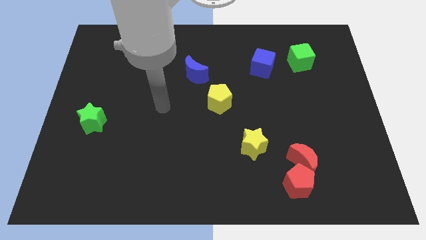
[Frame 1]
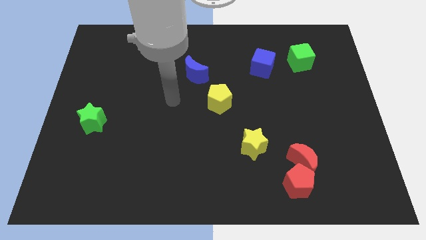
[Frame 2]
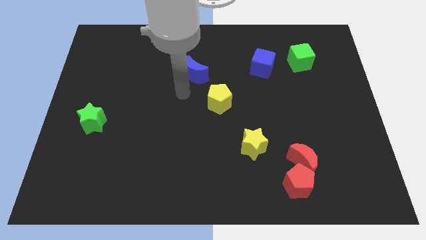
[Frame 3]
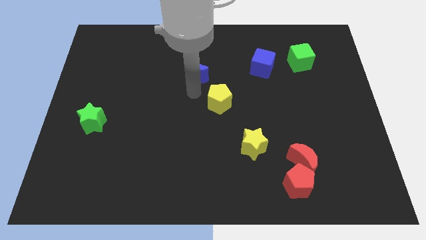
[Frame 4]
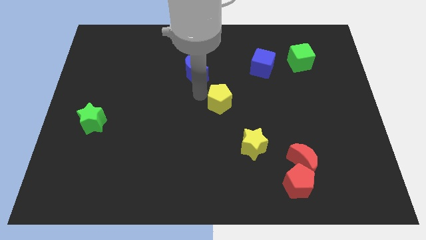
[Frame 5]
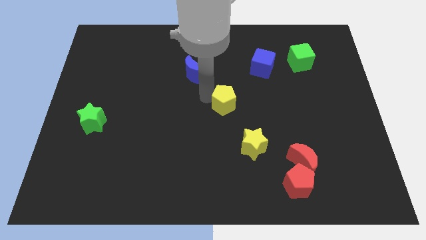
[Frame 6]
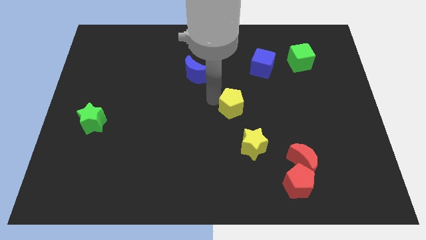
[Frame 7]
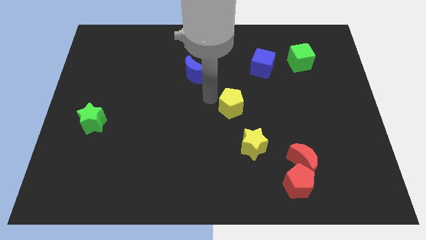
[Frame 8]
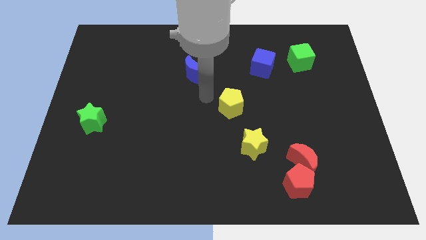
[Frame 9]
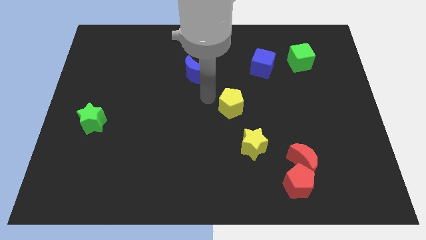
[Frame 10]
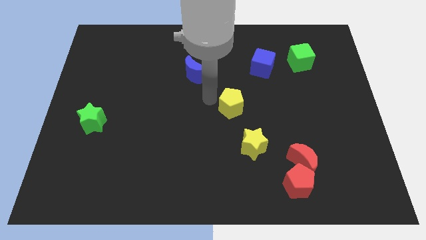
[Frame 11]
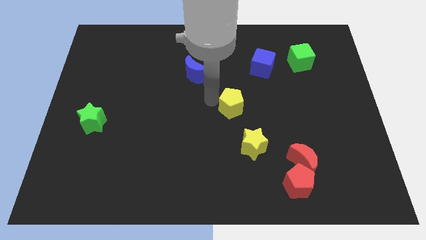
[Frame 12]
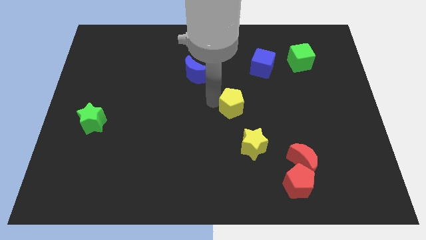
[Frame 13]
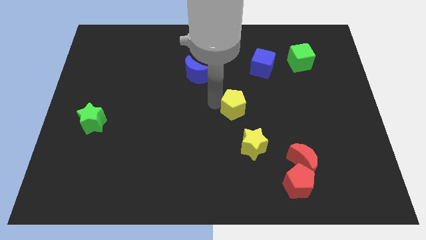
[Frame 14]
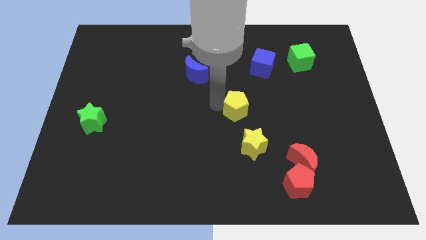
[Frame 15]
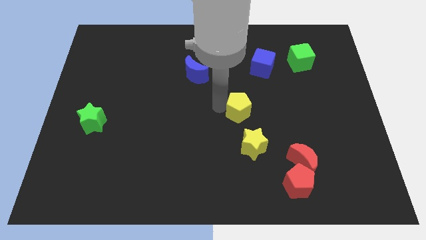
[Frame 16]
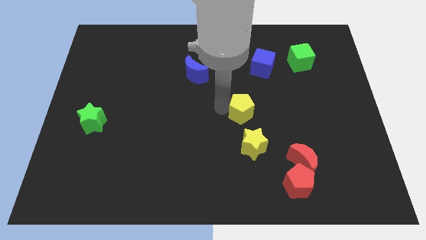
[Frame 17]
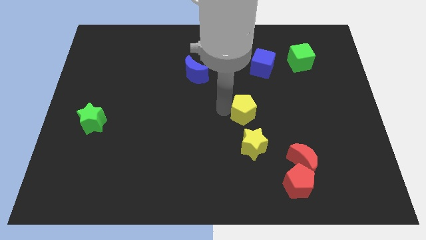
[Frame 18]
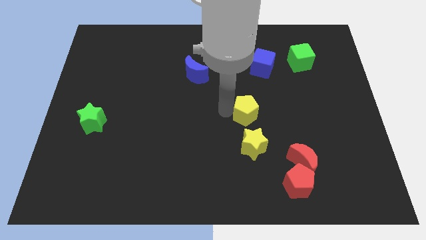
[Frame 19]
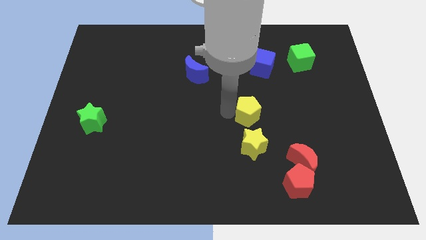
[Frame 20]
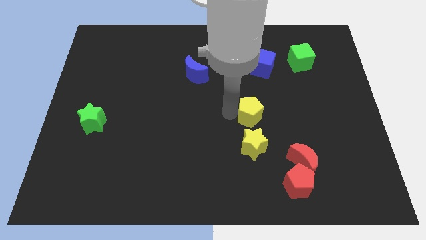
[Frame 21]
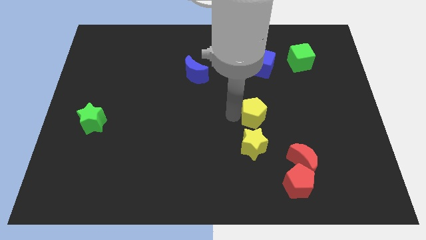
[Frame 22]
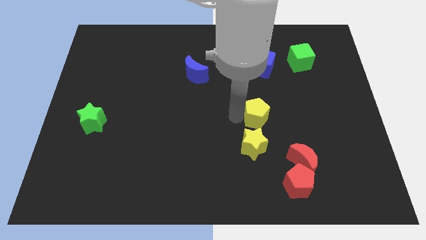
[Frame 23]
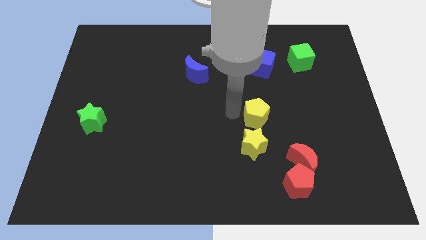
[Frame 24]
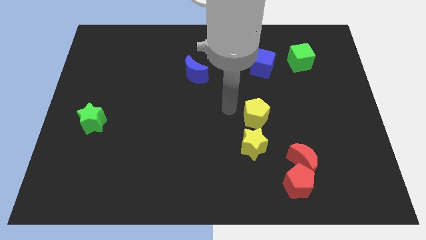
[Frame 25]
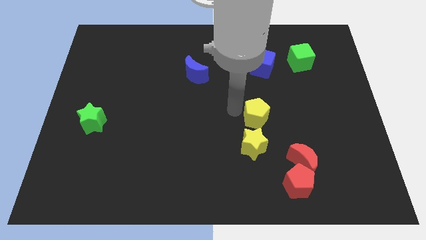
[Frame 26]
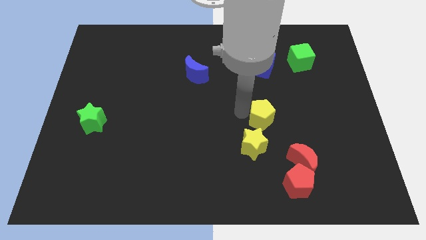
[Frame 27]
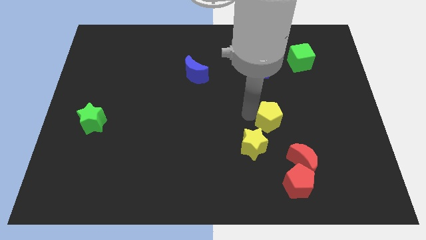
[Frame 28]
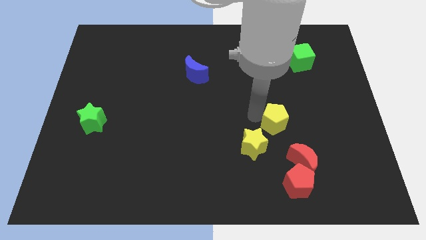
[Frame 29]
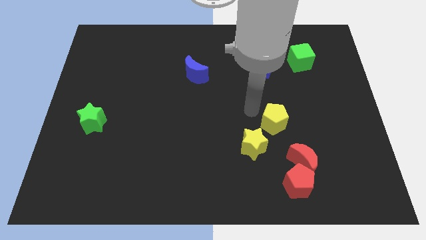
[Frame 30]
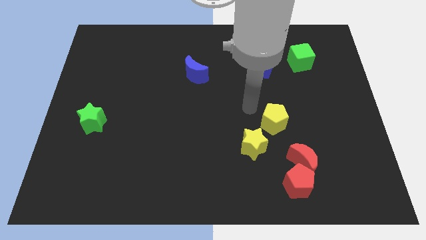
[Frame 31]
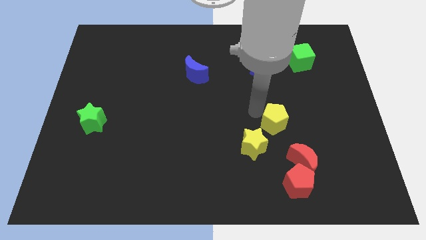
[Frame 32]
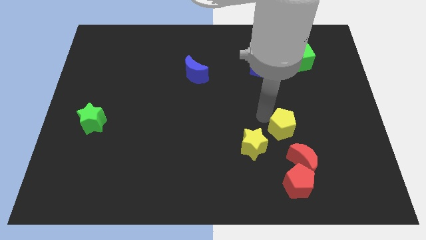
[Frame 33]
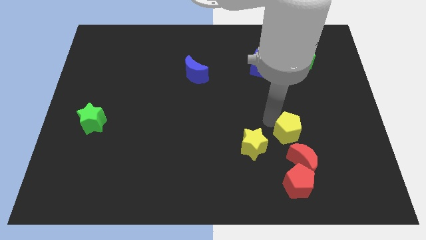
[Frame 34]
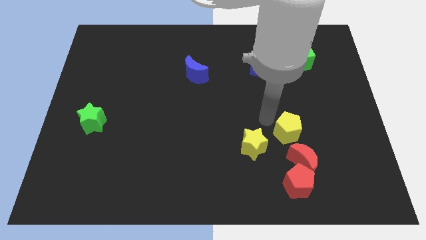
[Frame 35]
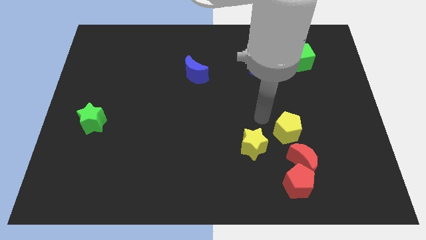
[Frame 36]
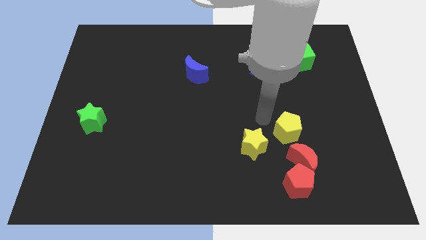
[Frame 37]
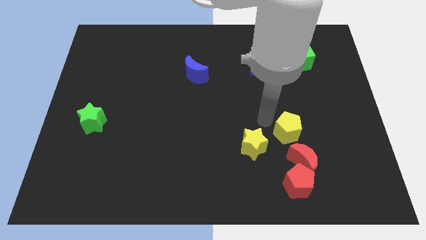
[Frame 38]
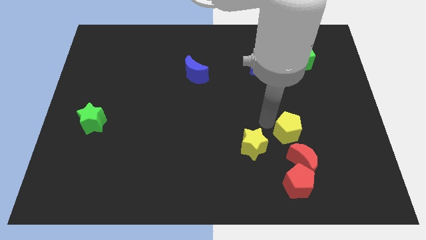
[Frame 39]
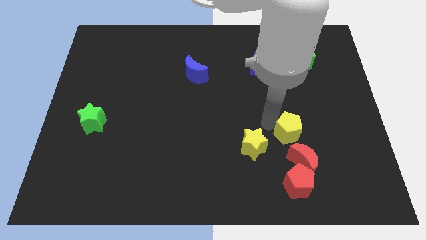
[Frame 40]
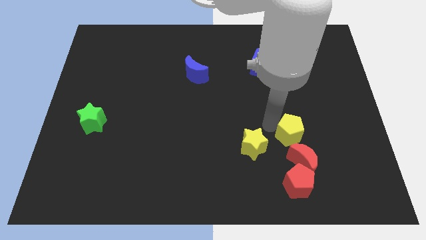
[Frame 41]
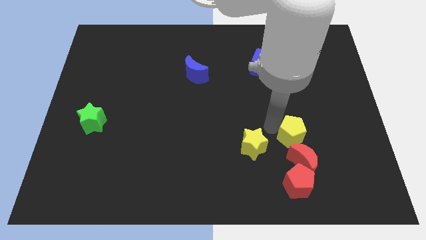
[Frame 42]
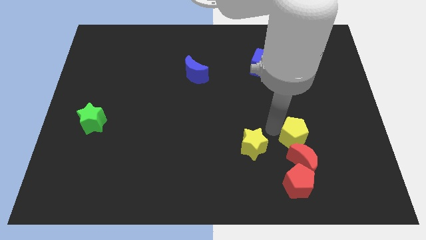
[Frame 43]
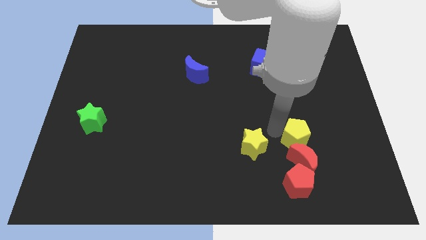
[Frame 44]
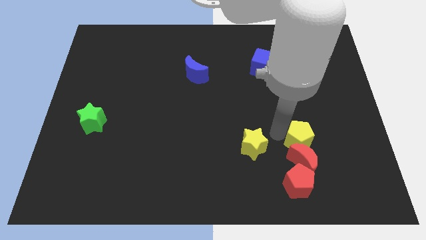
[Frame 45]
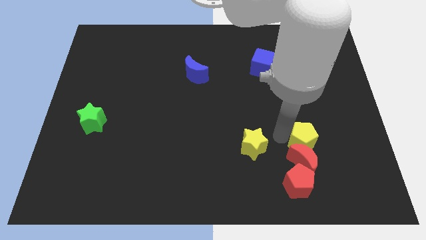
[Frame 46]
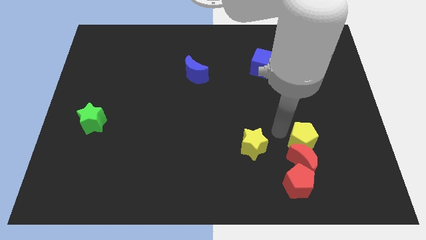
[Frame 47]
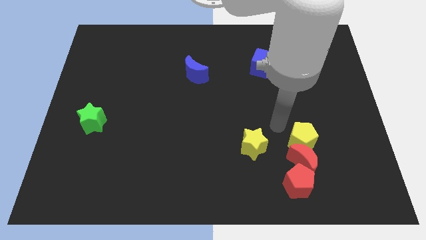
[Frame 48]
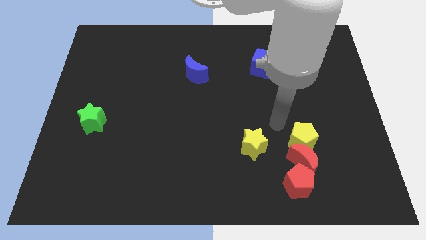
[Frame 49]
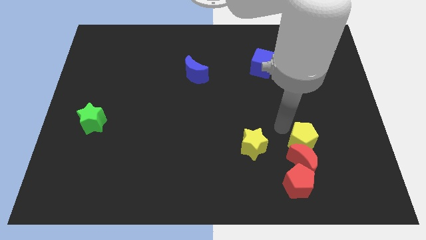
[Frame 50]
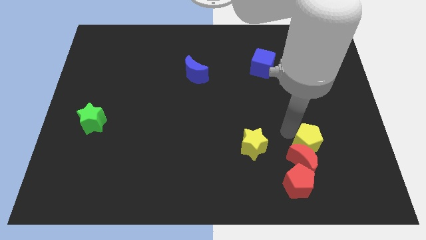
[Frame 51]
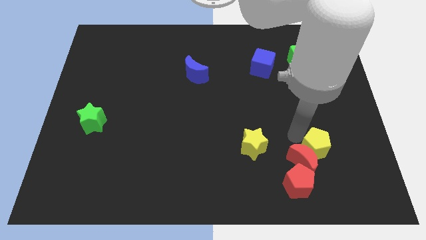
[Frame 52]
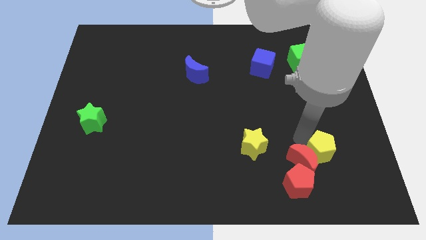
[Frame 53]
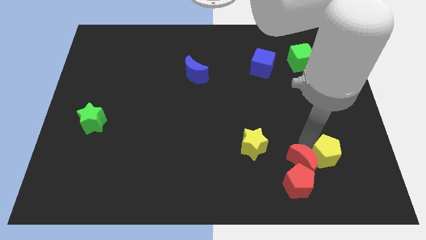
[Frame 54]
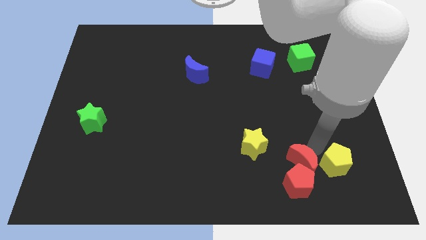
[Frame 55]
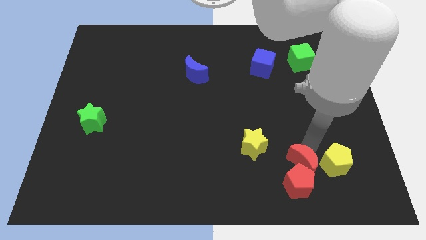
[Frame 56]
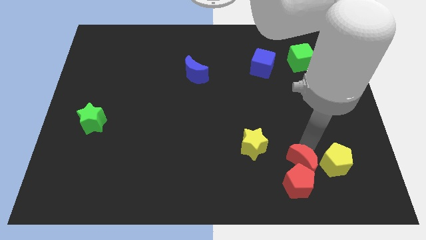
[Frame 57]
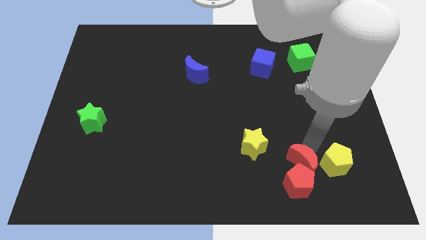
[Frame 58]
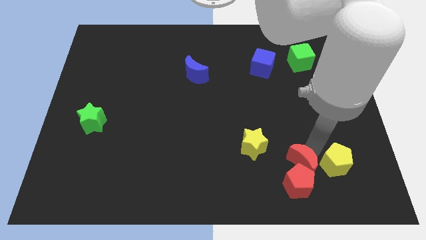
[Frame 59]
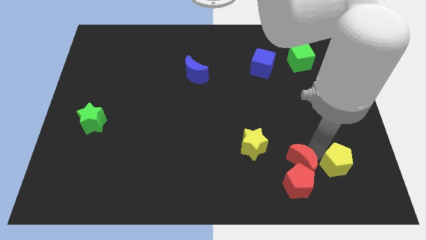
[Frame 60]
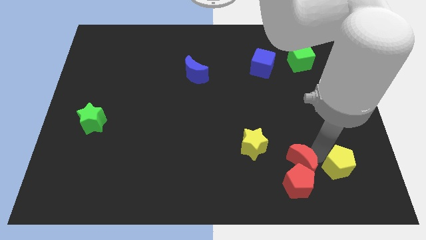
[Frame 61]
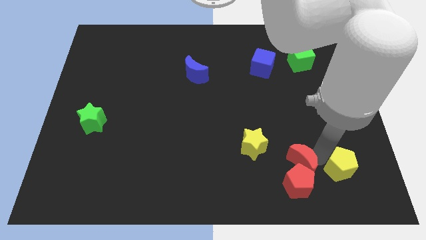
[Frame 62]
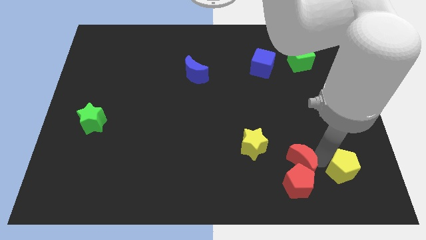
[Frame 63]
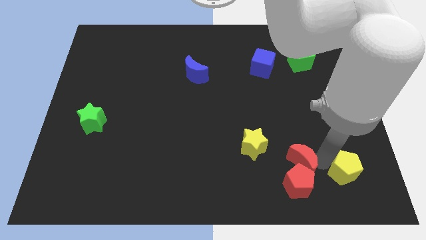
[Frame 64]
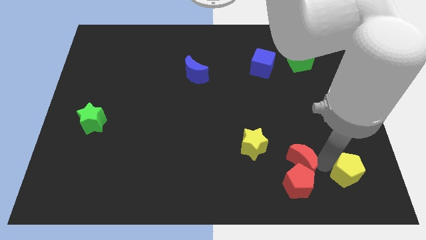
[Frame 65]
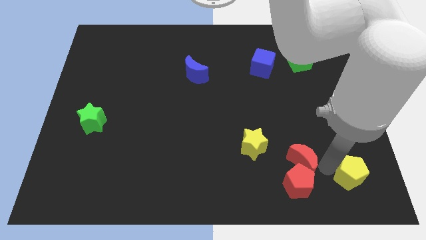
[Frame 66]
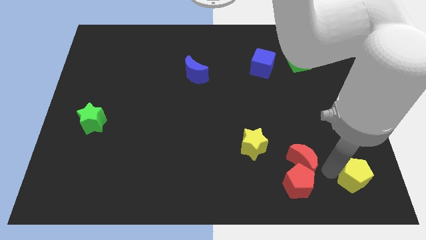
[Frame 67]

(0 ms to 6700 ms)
put the yellow pentagon to the lower right corner
